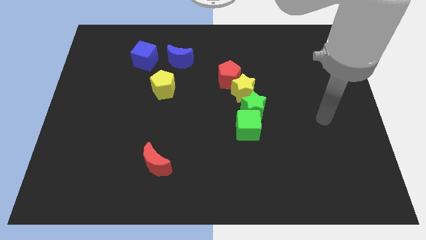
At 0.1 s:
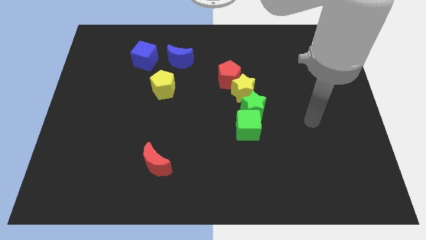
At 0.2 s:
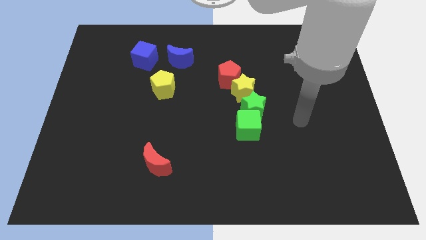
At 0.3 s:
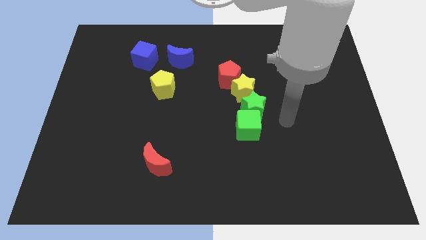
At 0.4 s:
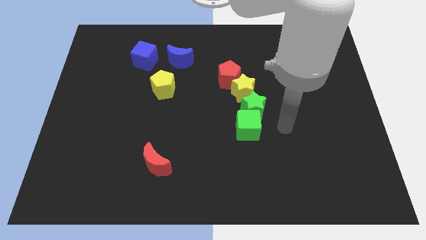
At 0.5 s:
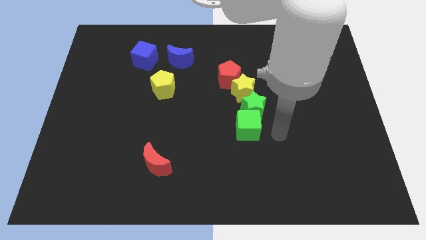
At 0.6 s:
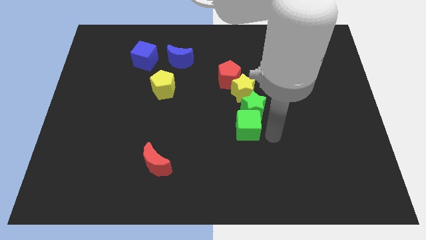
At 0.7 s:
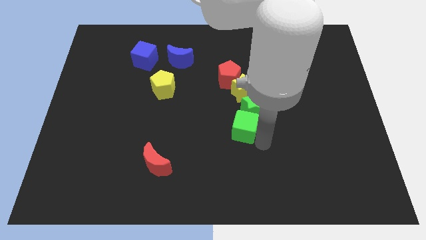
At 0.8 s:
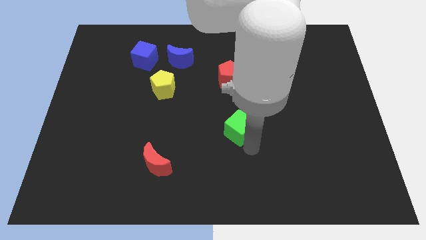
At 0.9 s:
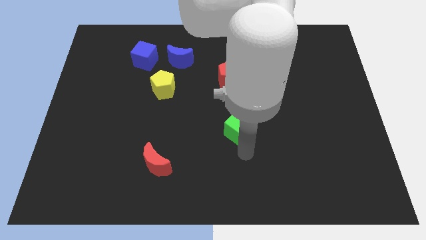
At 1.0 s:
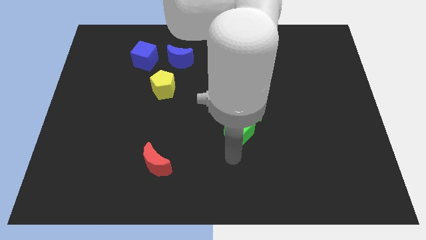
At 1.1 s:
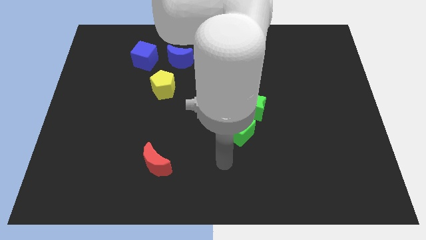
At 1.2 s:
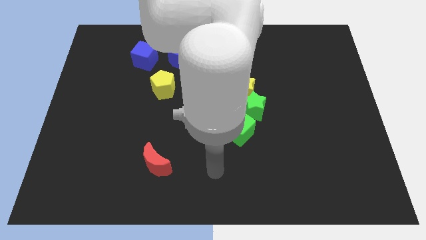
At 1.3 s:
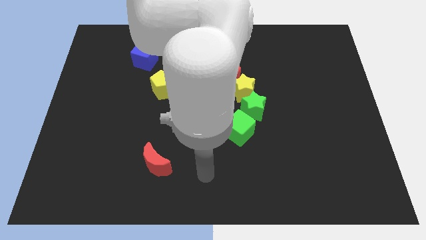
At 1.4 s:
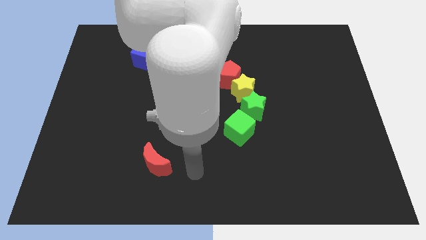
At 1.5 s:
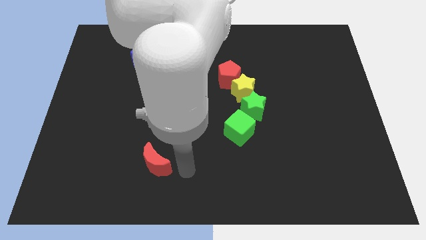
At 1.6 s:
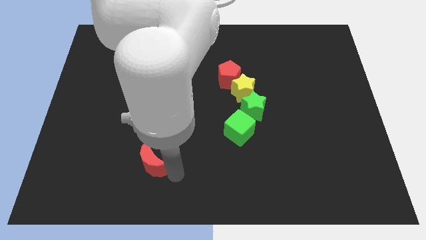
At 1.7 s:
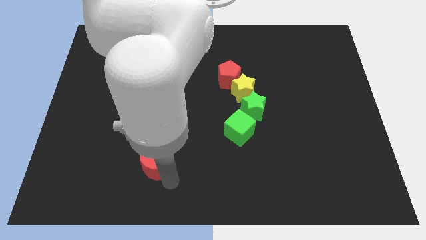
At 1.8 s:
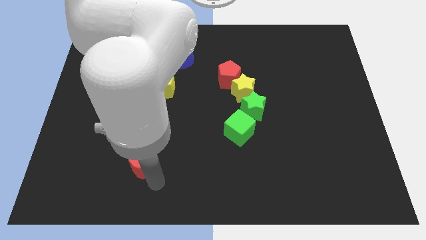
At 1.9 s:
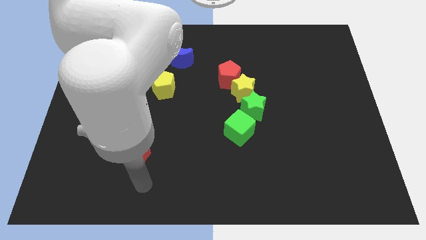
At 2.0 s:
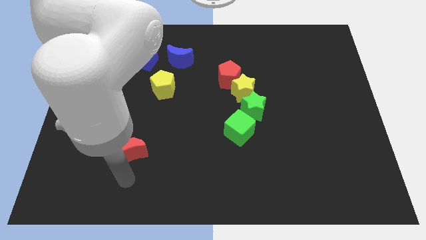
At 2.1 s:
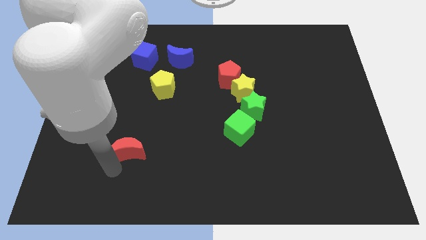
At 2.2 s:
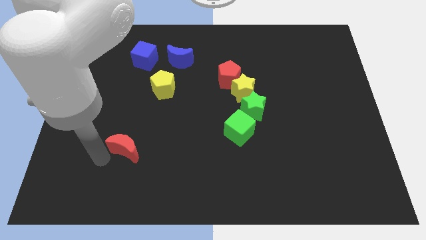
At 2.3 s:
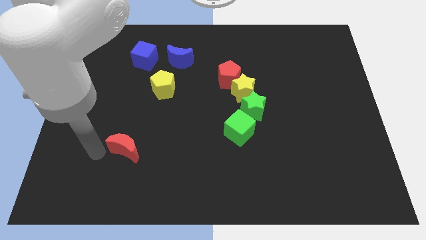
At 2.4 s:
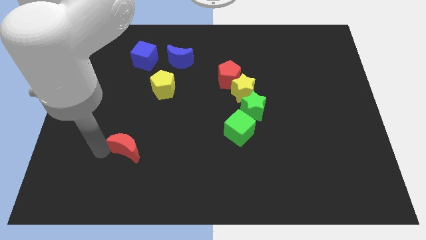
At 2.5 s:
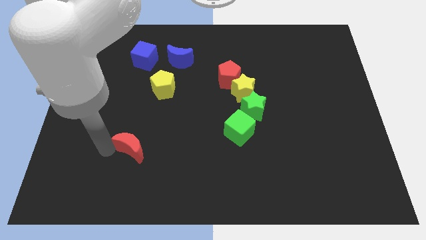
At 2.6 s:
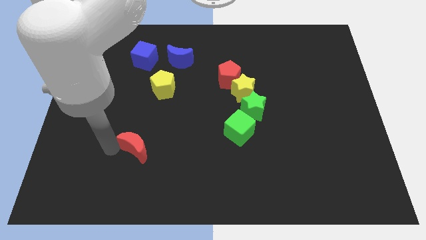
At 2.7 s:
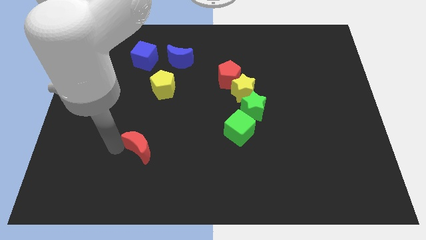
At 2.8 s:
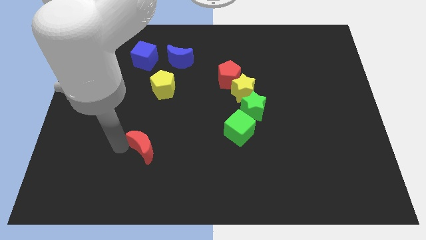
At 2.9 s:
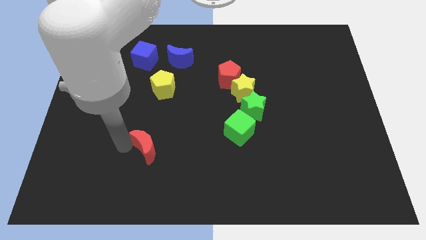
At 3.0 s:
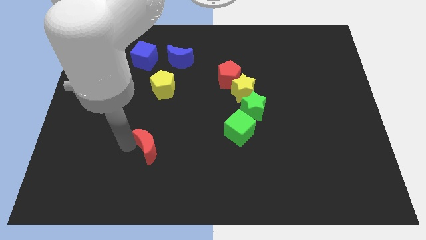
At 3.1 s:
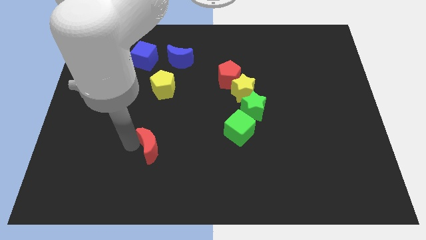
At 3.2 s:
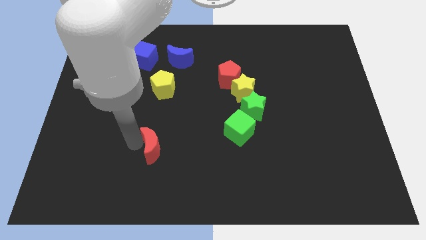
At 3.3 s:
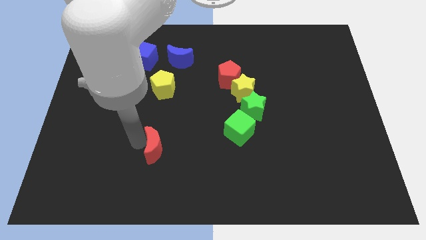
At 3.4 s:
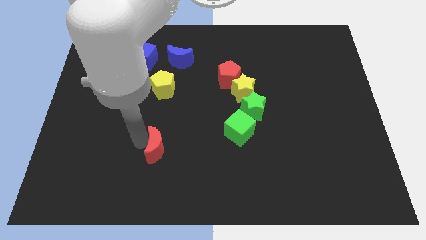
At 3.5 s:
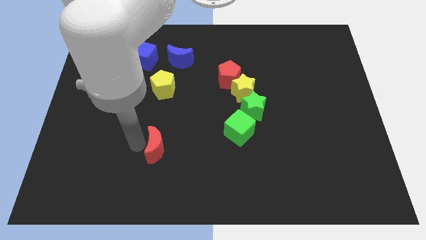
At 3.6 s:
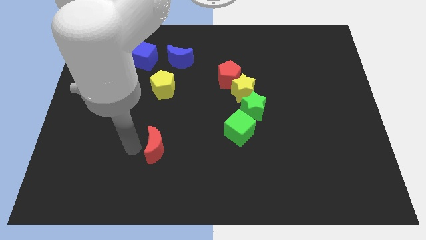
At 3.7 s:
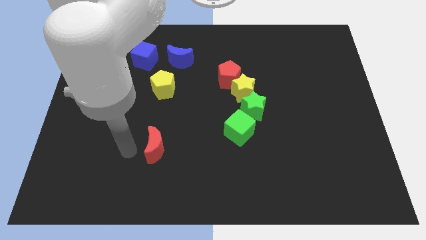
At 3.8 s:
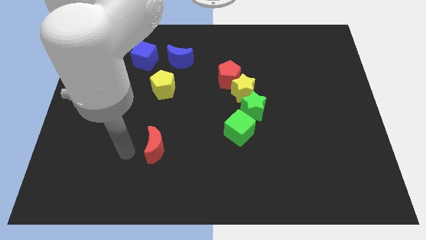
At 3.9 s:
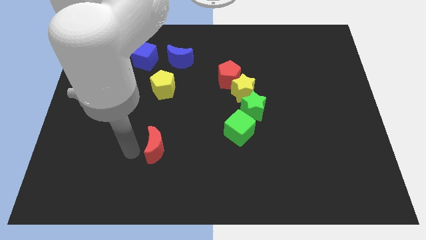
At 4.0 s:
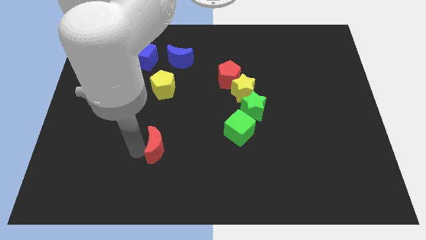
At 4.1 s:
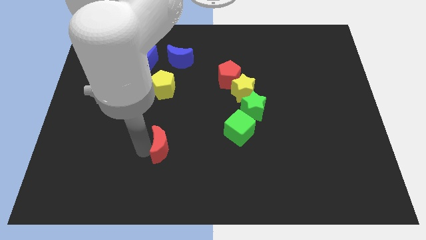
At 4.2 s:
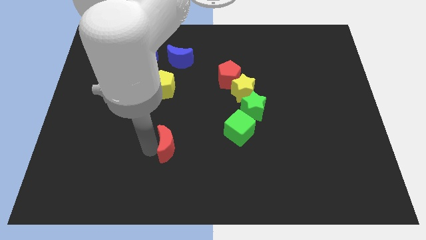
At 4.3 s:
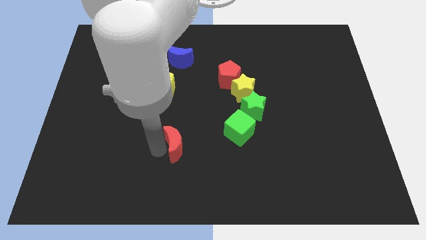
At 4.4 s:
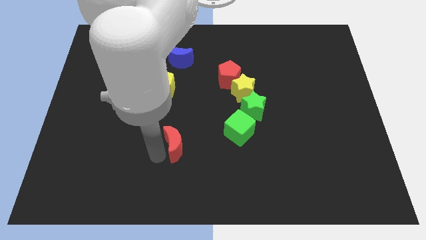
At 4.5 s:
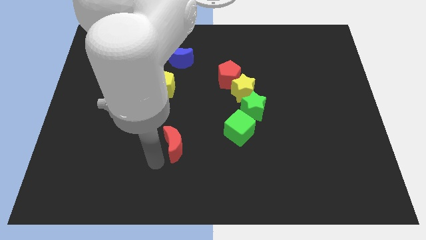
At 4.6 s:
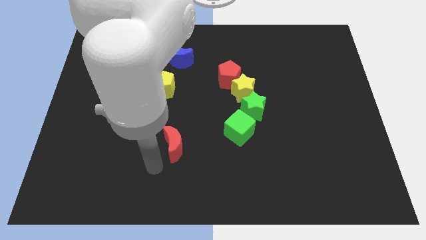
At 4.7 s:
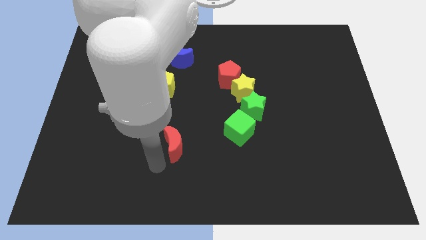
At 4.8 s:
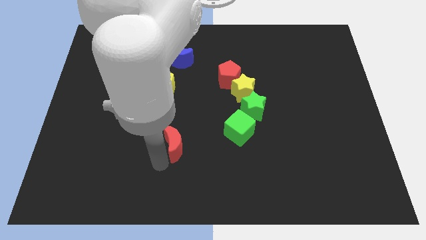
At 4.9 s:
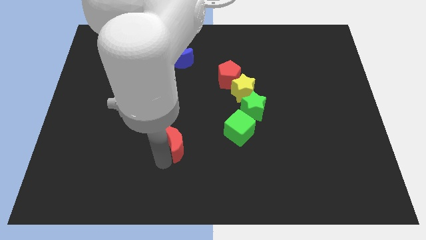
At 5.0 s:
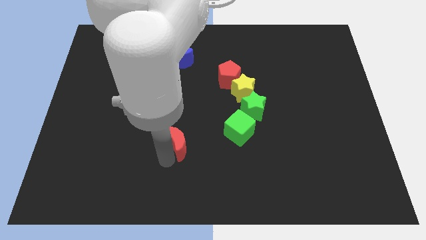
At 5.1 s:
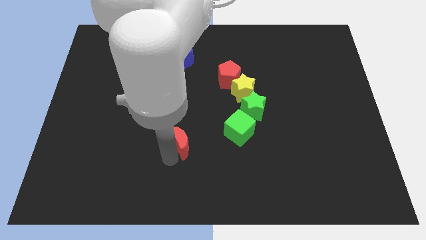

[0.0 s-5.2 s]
move the red moon diagonally up and right somewhat

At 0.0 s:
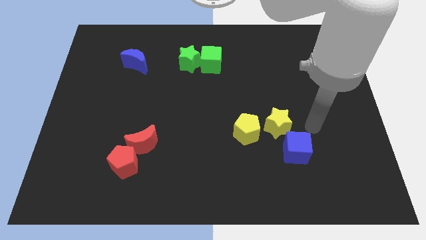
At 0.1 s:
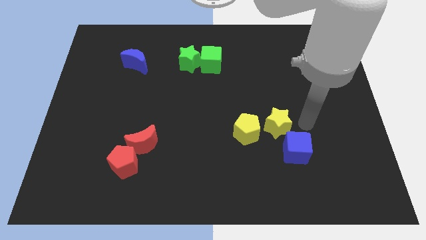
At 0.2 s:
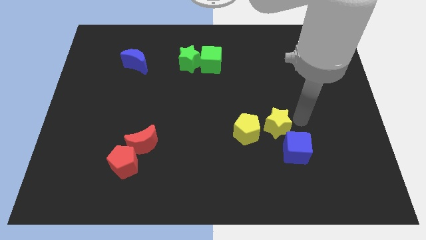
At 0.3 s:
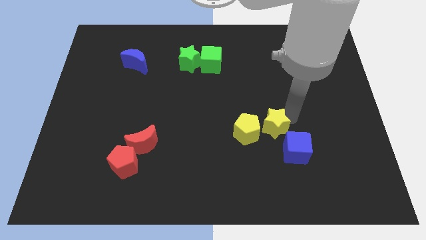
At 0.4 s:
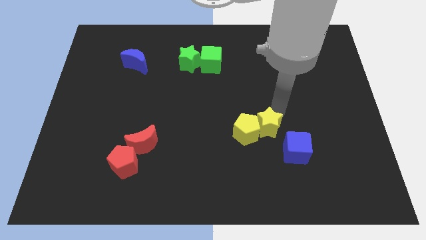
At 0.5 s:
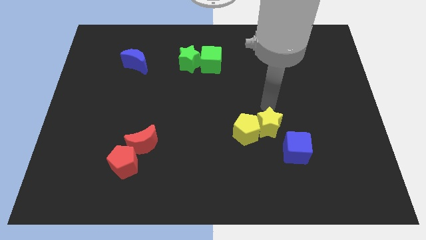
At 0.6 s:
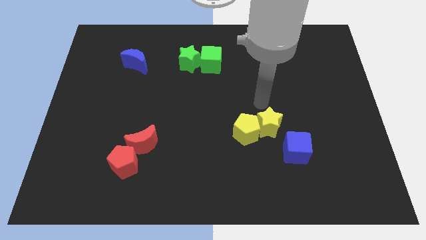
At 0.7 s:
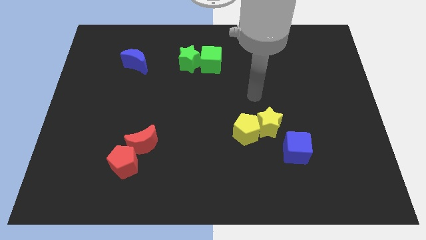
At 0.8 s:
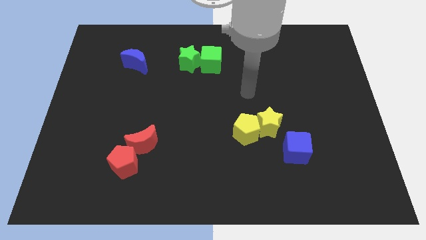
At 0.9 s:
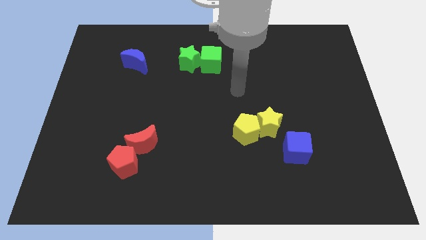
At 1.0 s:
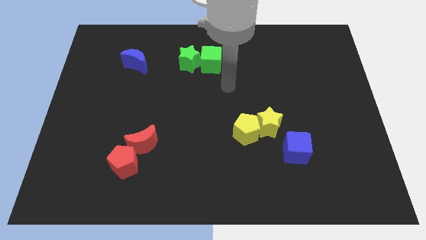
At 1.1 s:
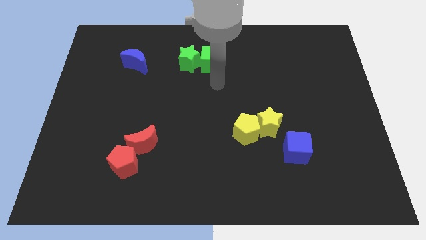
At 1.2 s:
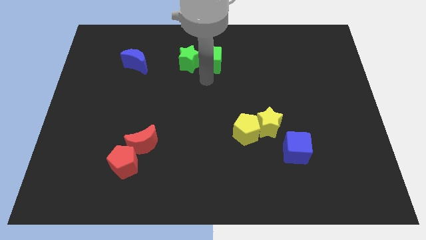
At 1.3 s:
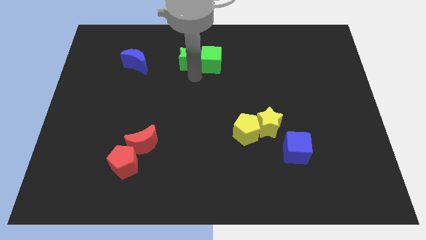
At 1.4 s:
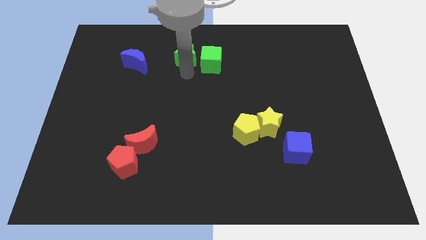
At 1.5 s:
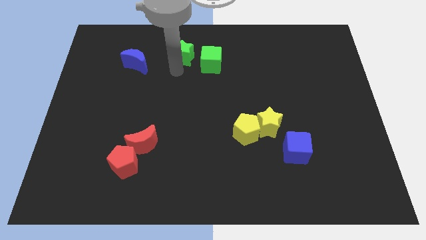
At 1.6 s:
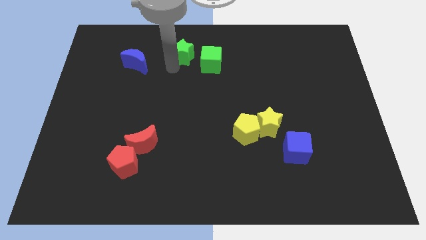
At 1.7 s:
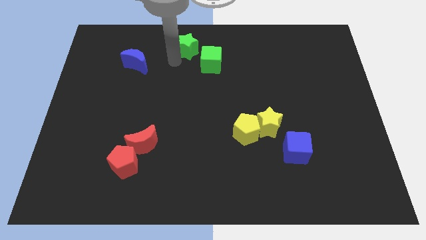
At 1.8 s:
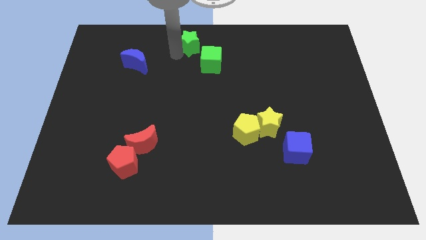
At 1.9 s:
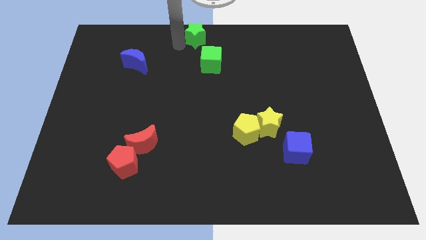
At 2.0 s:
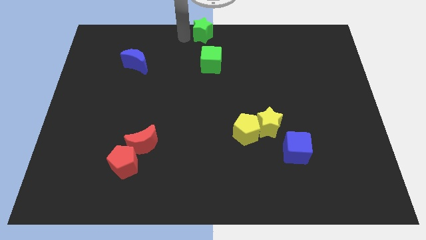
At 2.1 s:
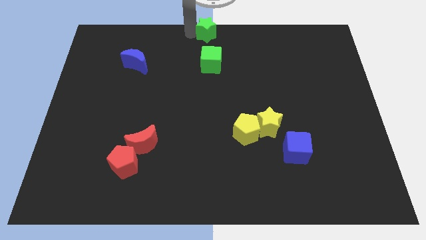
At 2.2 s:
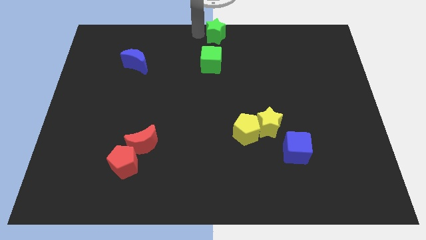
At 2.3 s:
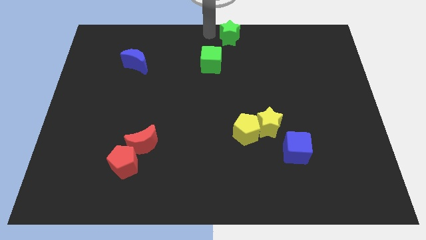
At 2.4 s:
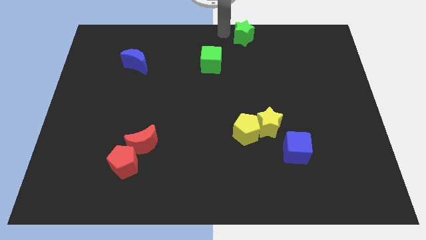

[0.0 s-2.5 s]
push the green star right somewhat

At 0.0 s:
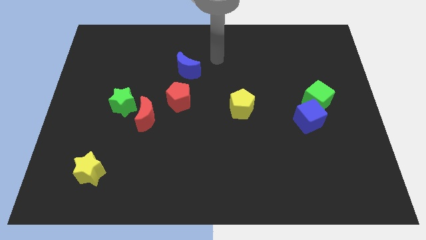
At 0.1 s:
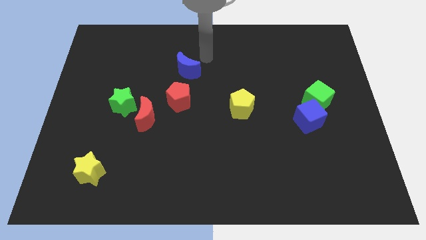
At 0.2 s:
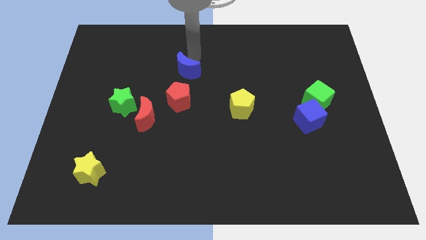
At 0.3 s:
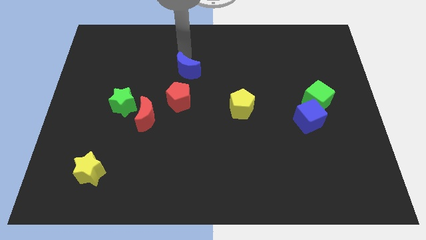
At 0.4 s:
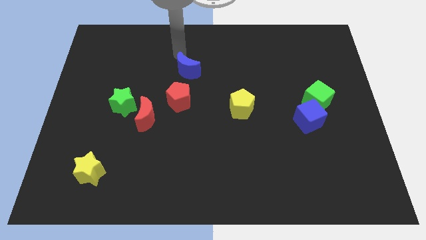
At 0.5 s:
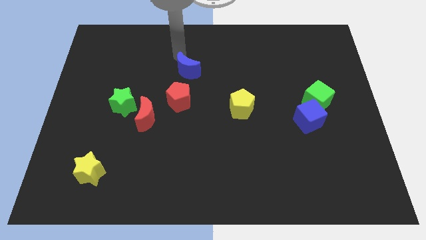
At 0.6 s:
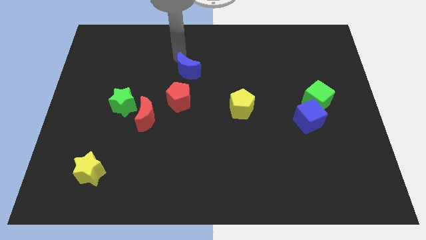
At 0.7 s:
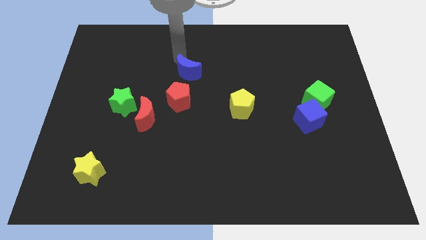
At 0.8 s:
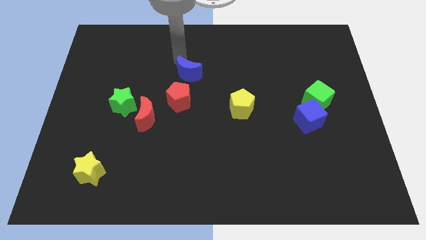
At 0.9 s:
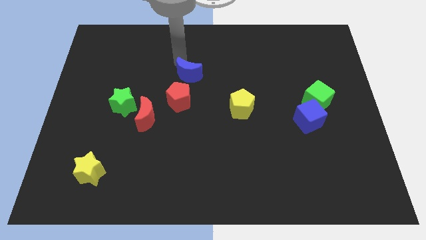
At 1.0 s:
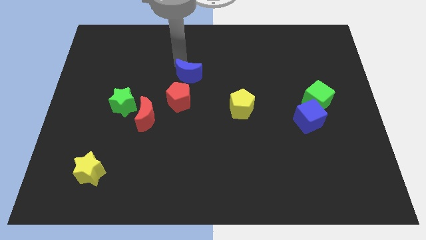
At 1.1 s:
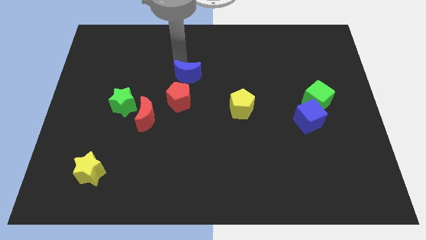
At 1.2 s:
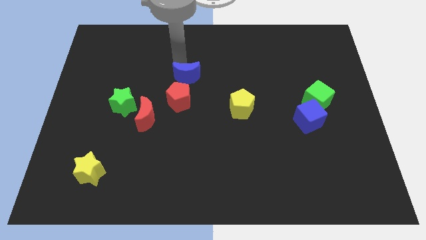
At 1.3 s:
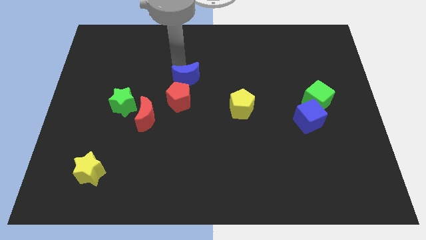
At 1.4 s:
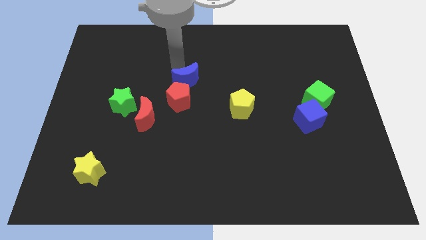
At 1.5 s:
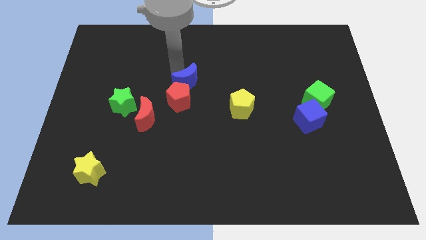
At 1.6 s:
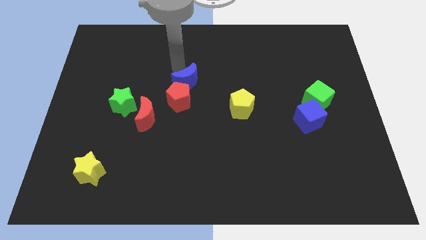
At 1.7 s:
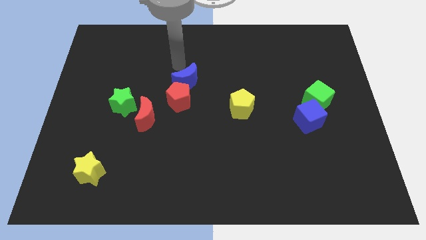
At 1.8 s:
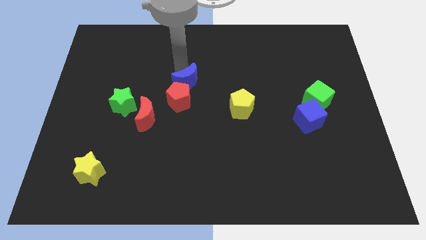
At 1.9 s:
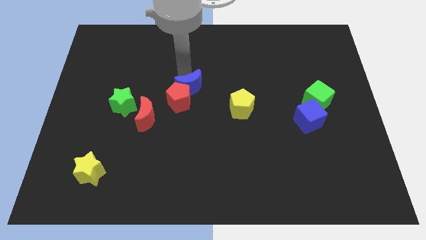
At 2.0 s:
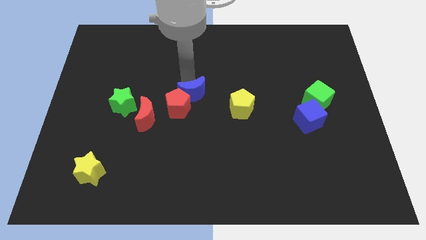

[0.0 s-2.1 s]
move the blue moon down slightly